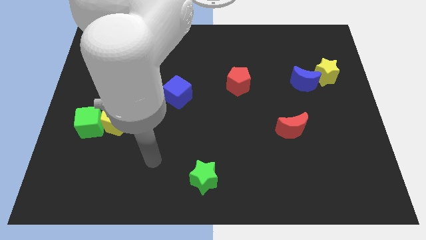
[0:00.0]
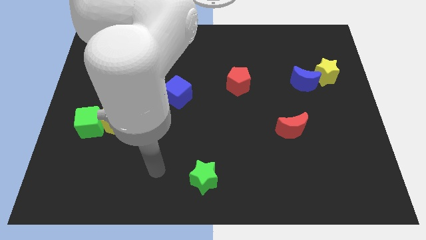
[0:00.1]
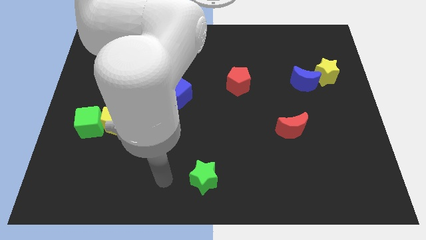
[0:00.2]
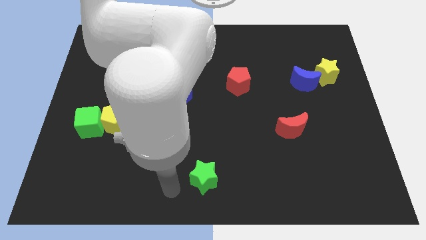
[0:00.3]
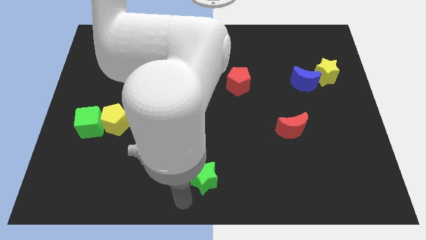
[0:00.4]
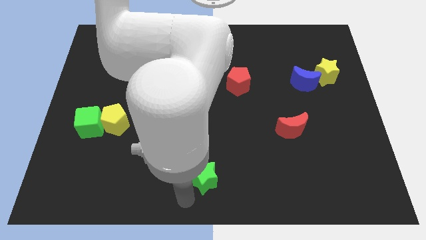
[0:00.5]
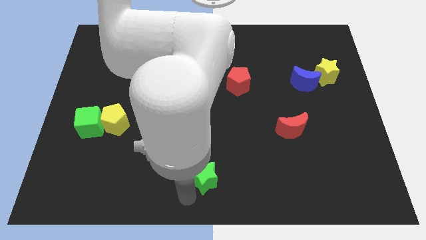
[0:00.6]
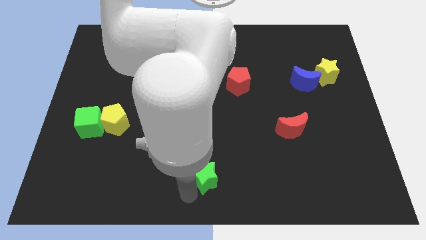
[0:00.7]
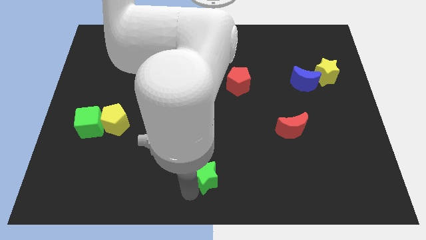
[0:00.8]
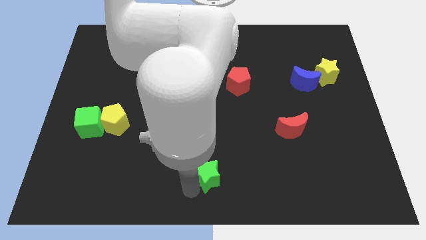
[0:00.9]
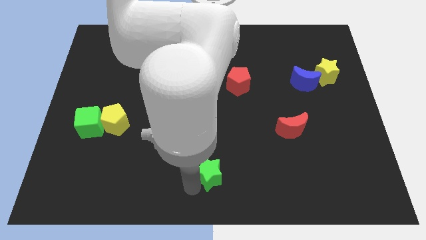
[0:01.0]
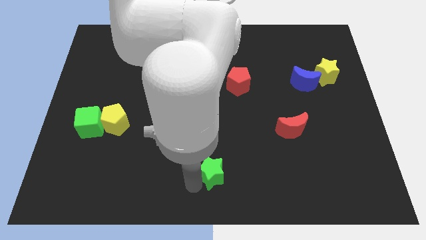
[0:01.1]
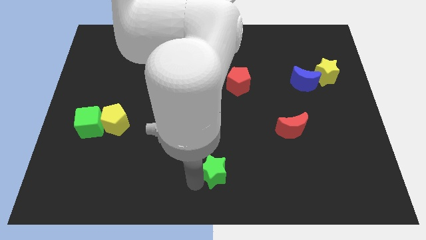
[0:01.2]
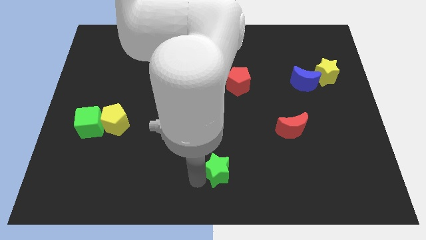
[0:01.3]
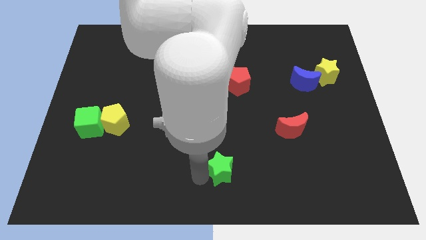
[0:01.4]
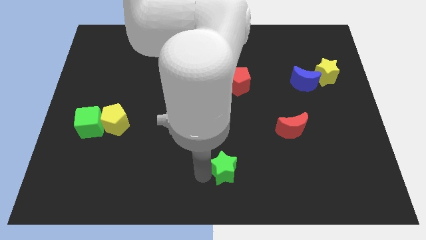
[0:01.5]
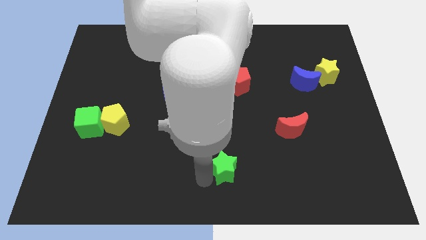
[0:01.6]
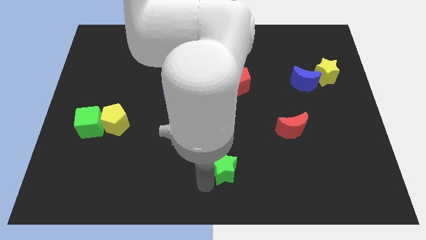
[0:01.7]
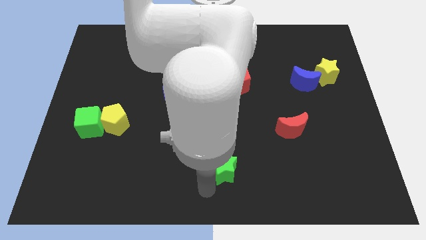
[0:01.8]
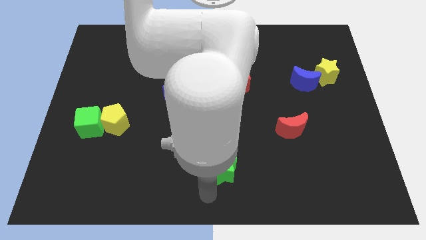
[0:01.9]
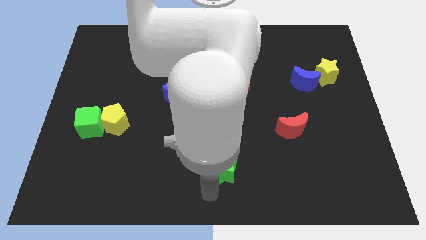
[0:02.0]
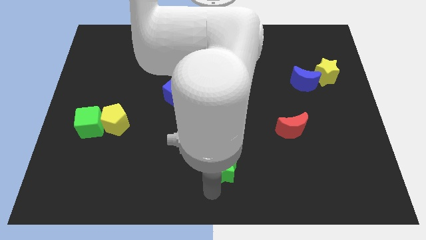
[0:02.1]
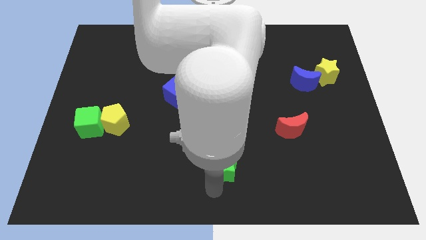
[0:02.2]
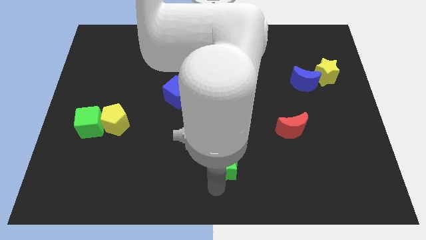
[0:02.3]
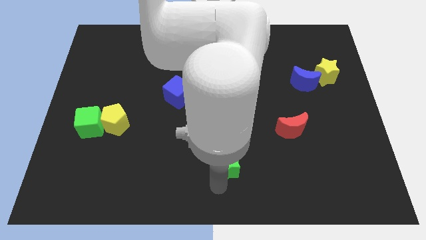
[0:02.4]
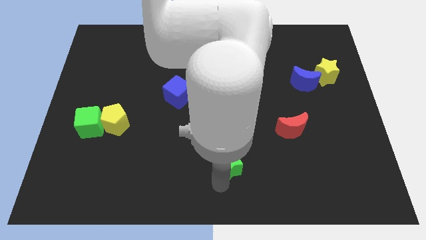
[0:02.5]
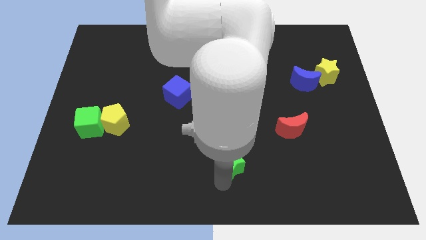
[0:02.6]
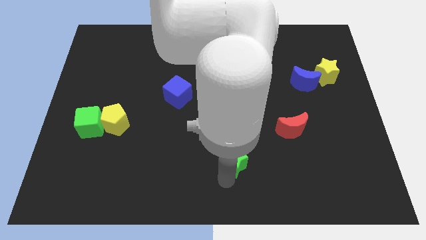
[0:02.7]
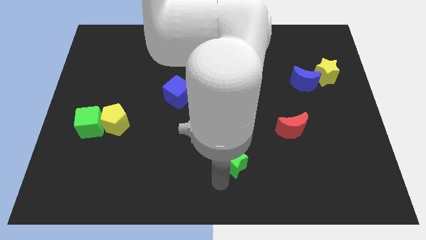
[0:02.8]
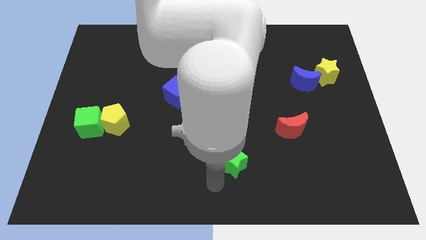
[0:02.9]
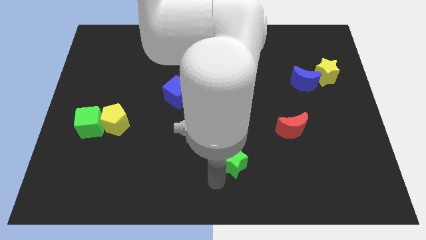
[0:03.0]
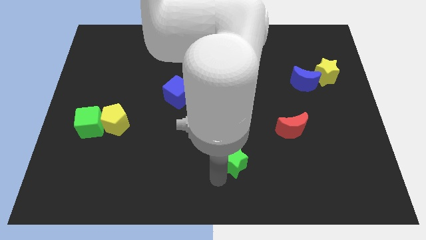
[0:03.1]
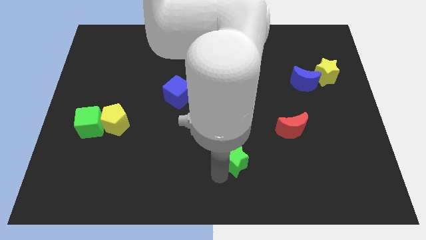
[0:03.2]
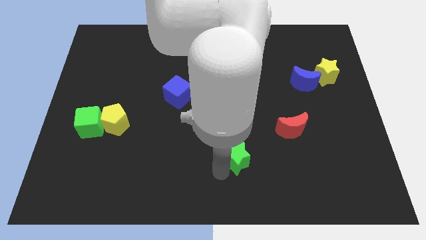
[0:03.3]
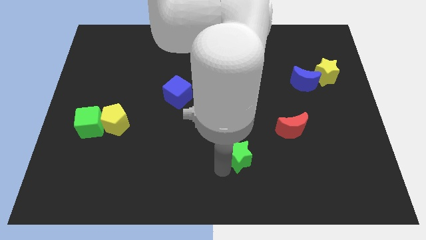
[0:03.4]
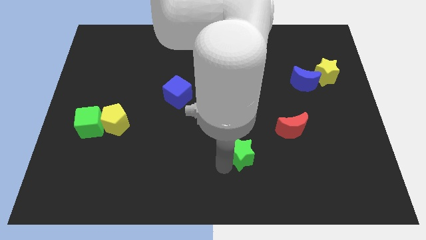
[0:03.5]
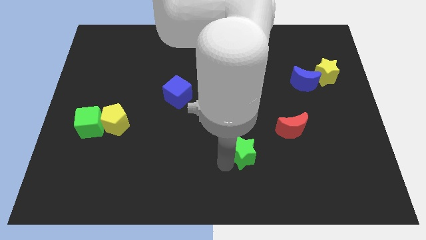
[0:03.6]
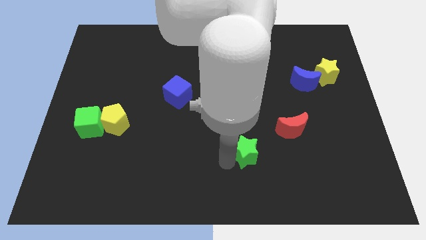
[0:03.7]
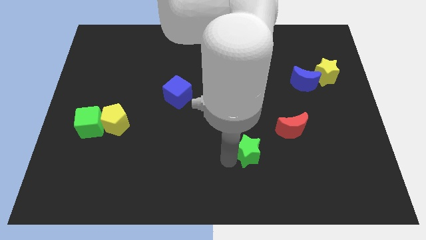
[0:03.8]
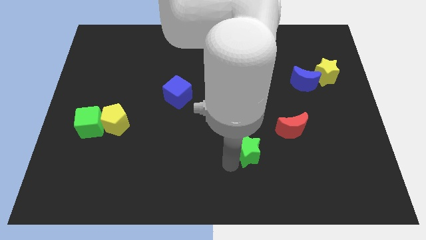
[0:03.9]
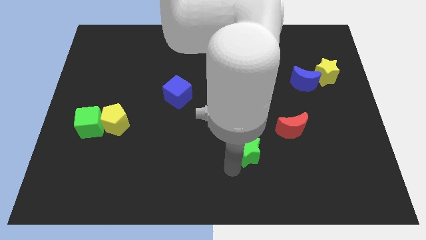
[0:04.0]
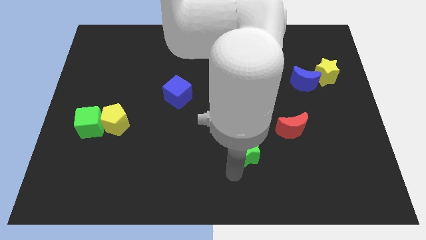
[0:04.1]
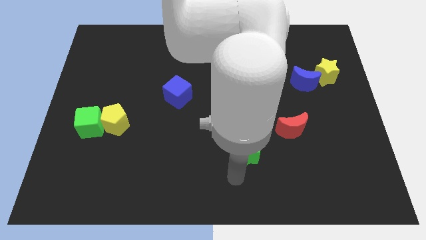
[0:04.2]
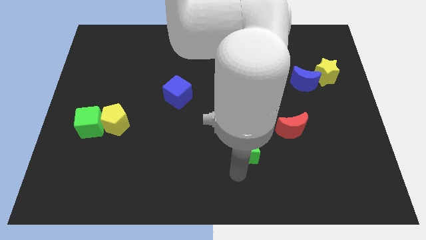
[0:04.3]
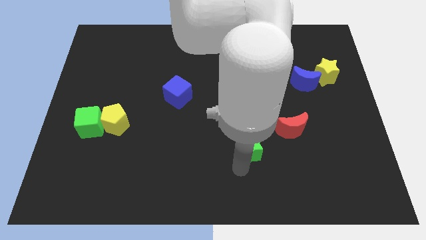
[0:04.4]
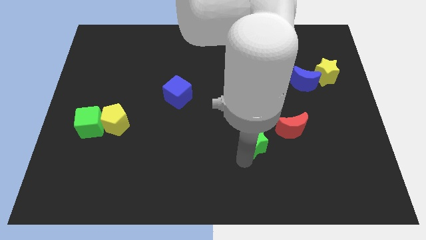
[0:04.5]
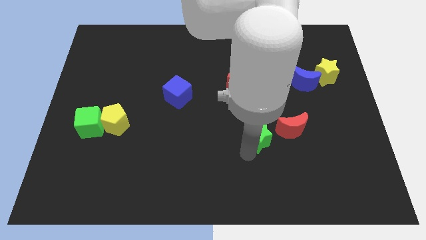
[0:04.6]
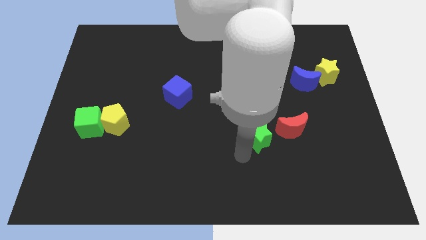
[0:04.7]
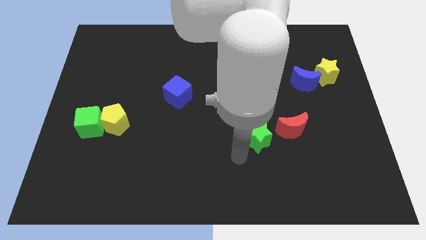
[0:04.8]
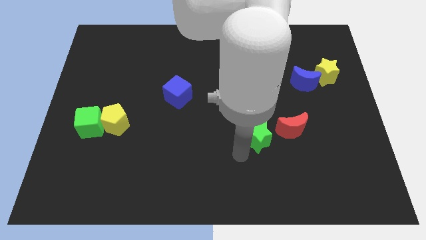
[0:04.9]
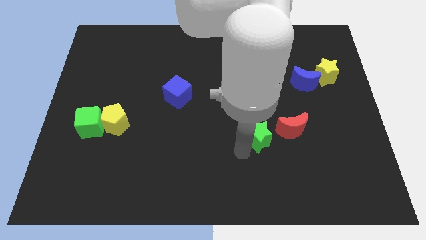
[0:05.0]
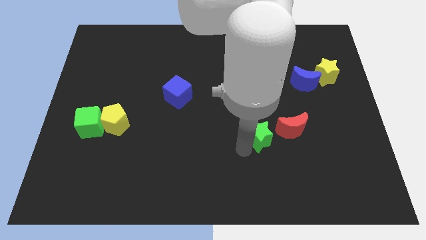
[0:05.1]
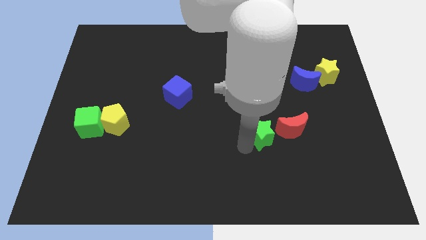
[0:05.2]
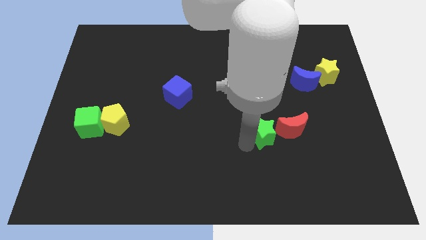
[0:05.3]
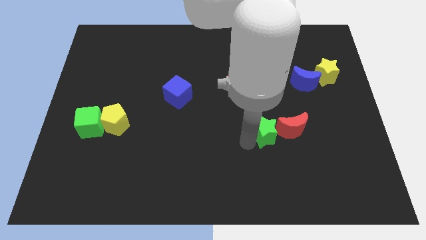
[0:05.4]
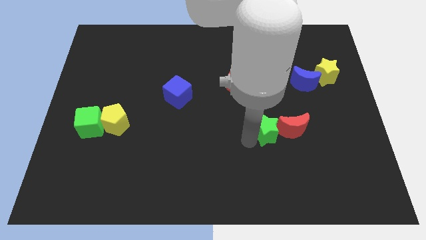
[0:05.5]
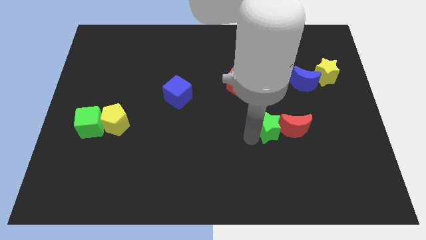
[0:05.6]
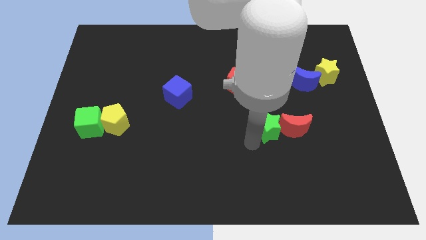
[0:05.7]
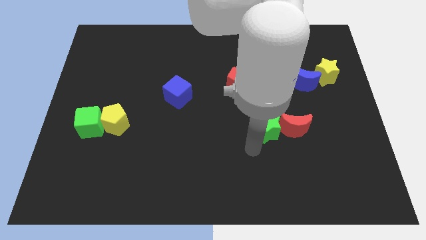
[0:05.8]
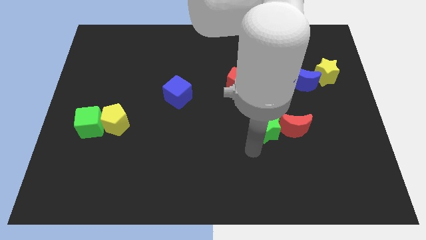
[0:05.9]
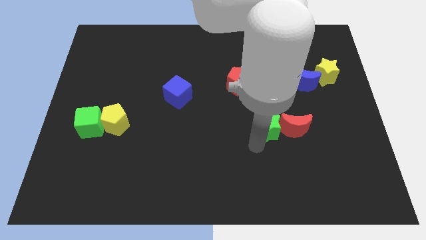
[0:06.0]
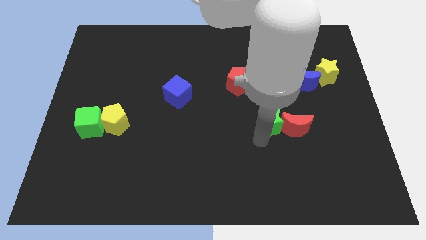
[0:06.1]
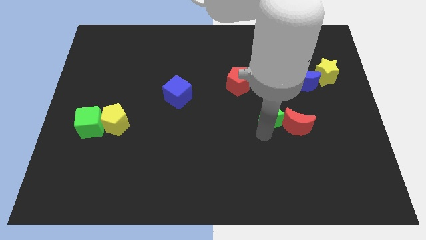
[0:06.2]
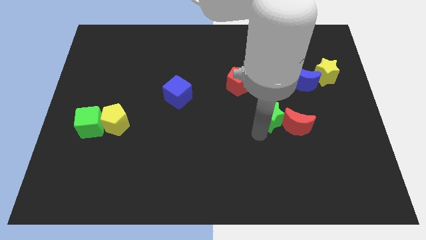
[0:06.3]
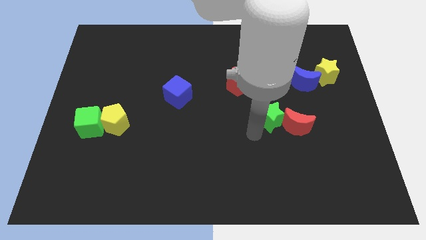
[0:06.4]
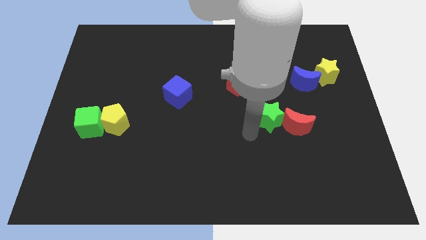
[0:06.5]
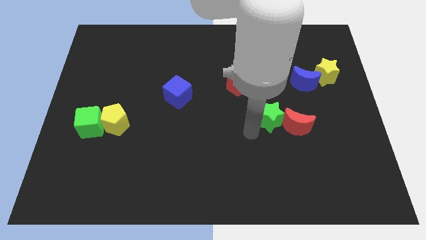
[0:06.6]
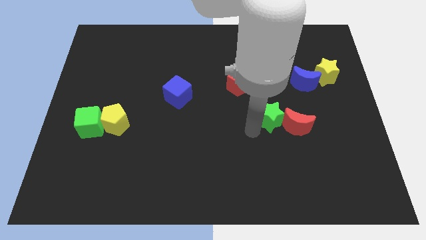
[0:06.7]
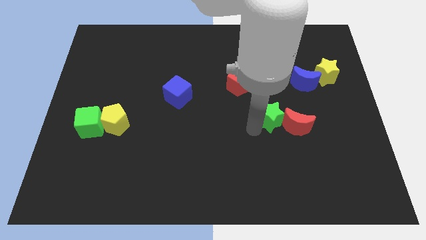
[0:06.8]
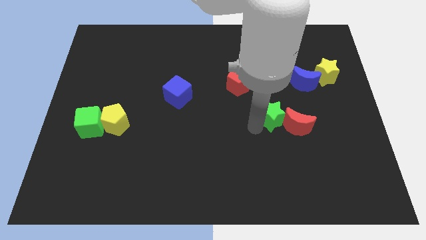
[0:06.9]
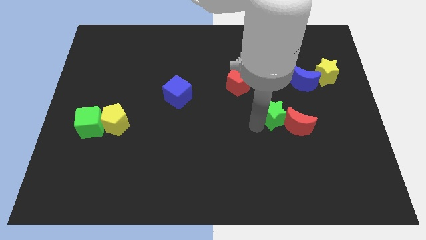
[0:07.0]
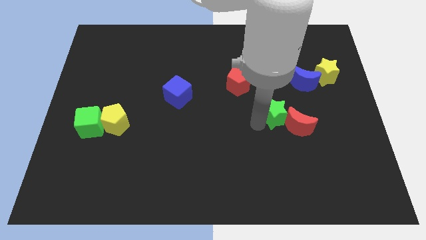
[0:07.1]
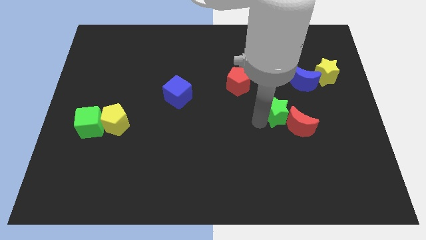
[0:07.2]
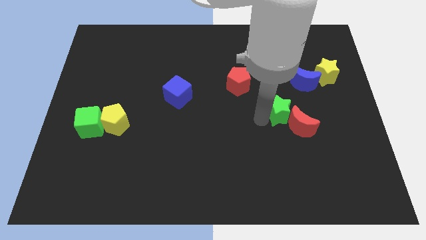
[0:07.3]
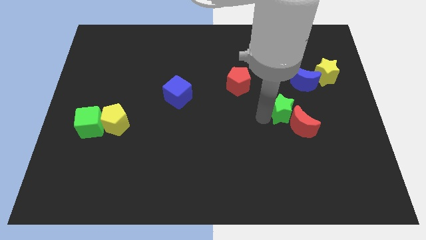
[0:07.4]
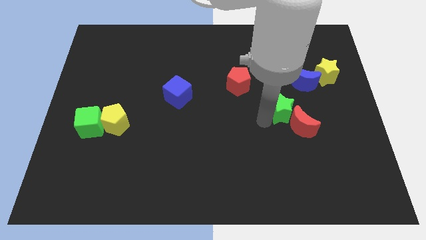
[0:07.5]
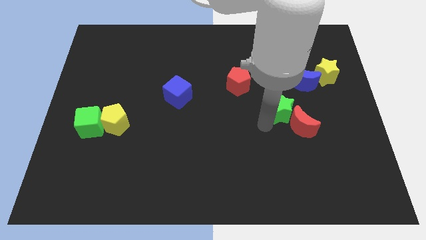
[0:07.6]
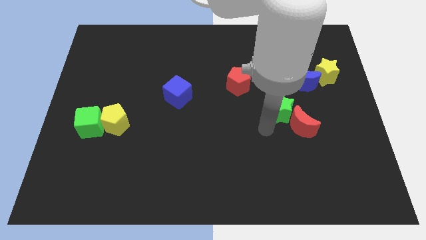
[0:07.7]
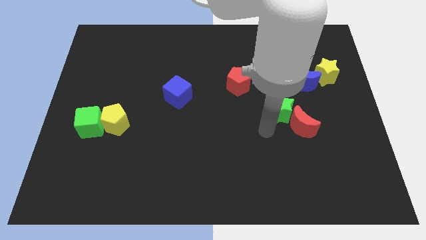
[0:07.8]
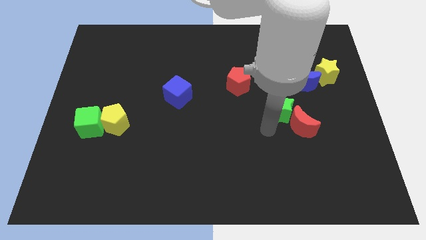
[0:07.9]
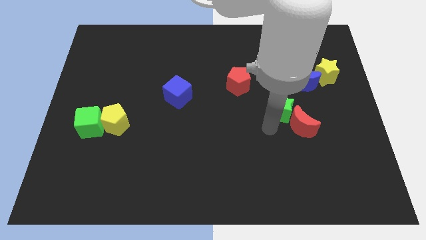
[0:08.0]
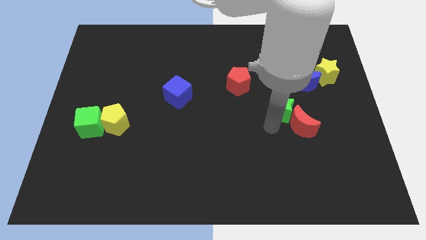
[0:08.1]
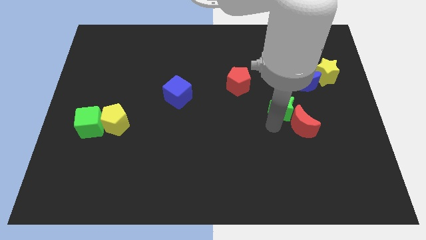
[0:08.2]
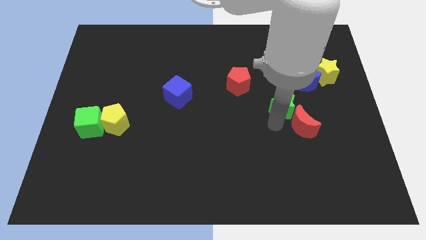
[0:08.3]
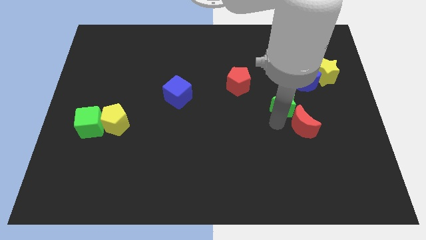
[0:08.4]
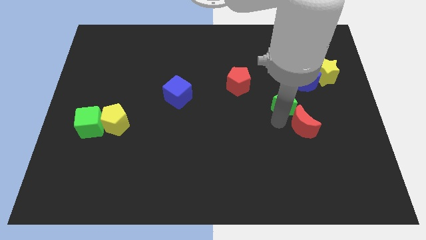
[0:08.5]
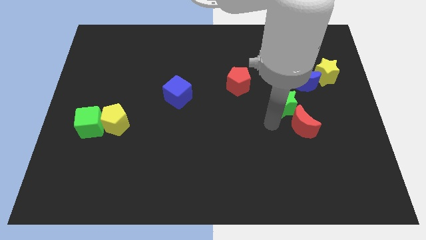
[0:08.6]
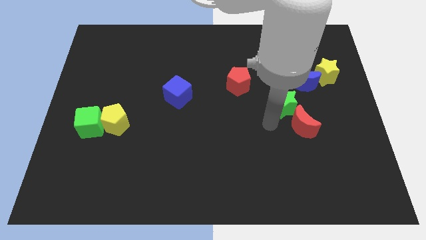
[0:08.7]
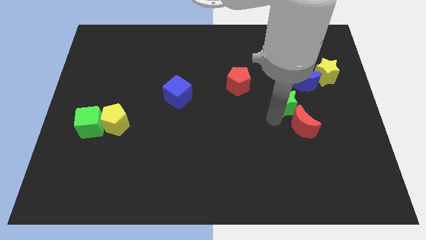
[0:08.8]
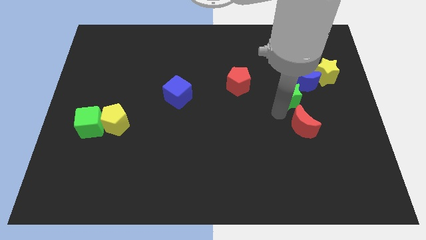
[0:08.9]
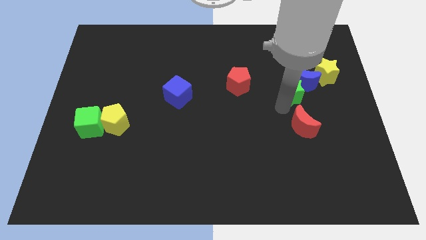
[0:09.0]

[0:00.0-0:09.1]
push the green star next to the blue moon
